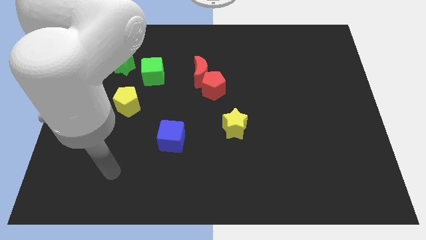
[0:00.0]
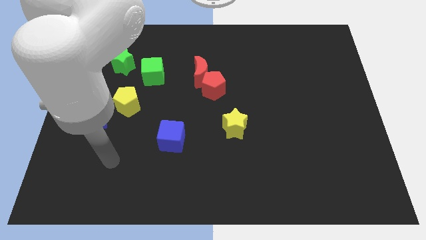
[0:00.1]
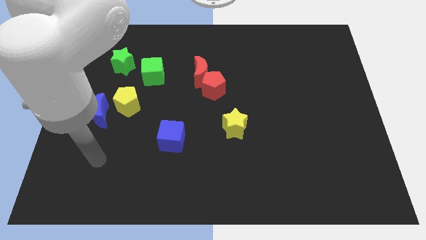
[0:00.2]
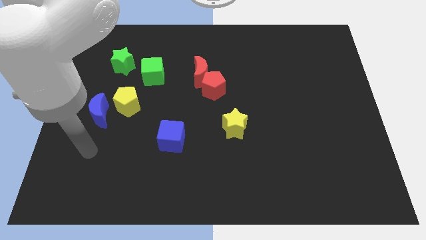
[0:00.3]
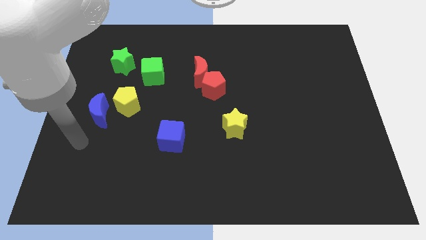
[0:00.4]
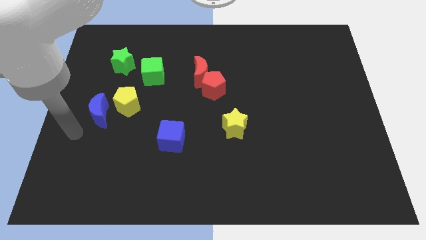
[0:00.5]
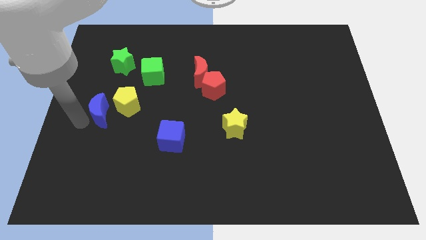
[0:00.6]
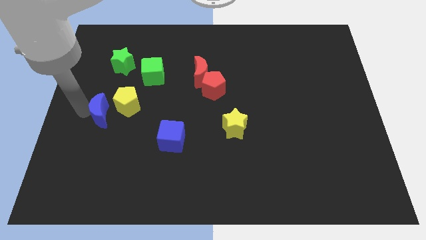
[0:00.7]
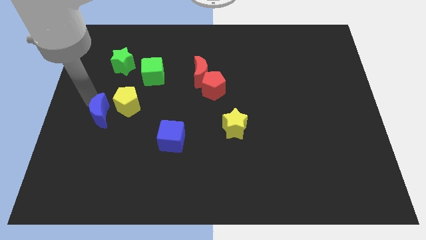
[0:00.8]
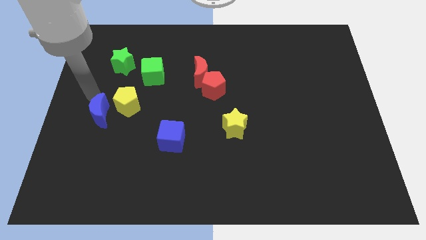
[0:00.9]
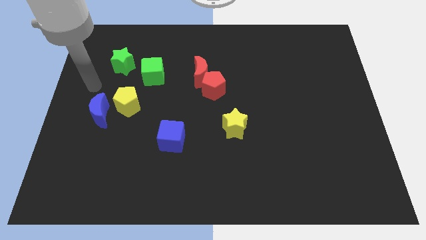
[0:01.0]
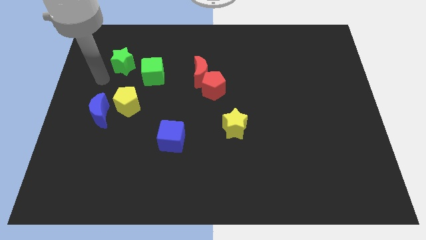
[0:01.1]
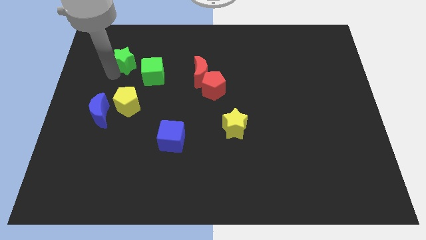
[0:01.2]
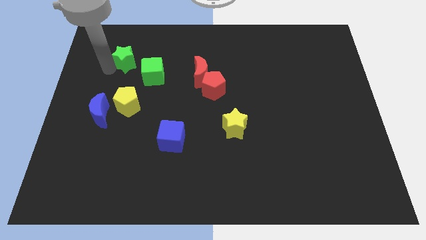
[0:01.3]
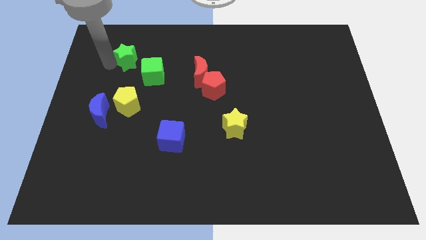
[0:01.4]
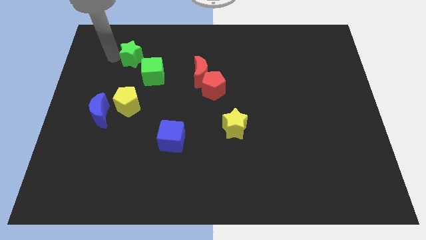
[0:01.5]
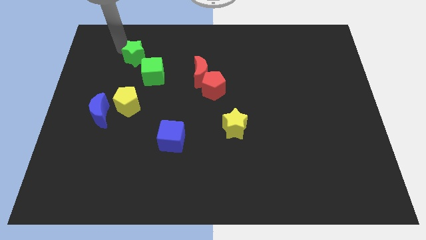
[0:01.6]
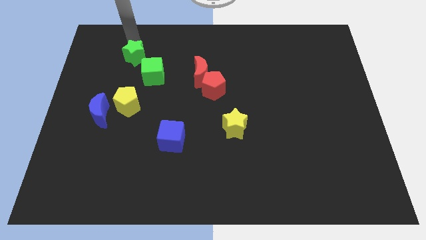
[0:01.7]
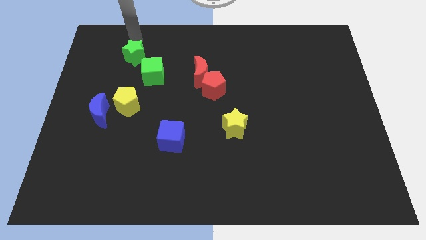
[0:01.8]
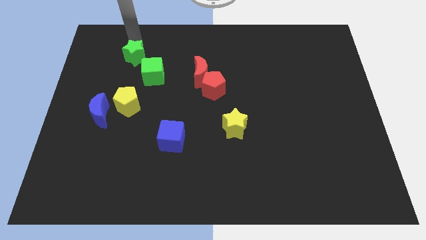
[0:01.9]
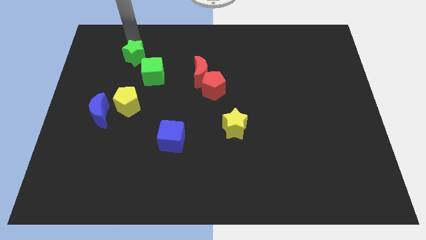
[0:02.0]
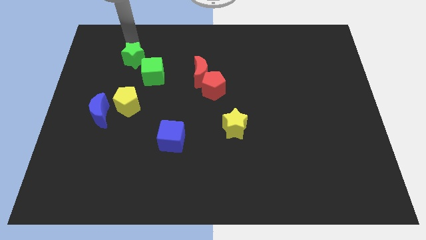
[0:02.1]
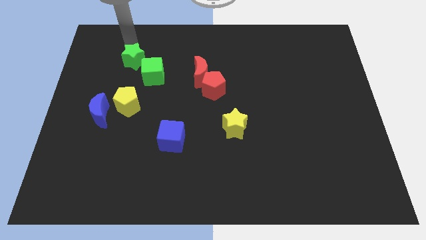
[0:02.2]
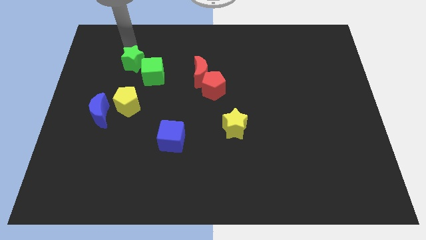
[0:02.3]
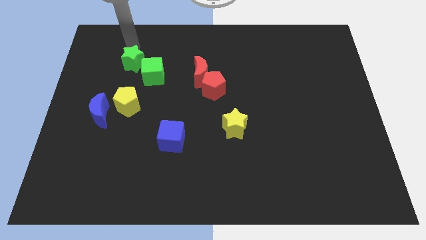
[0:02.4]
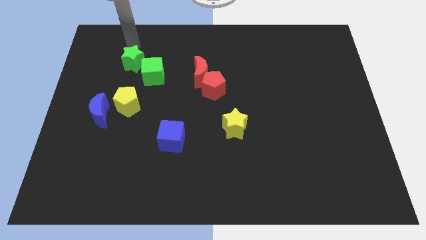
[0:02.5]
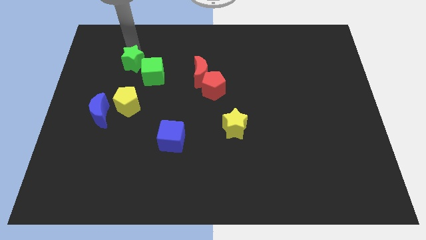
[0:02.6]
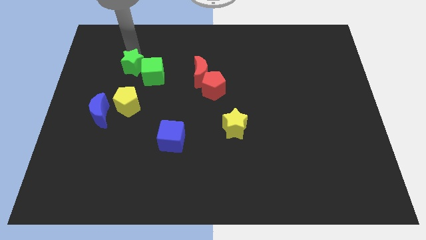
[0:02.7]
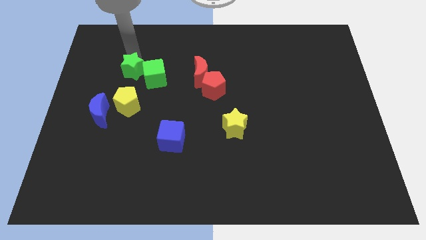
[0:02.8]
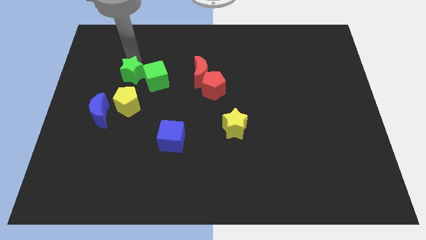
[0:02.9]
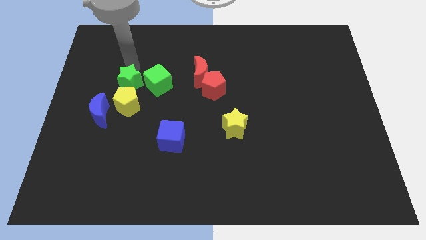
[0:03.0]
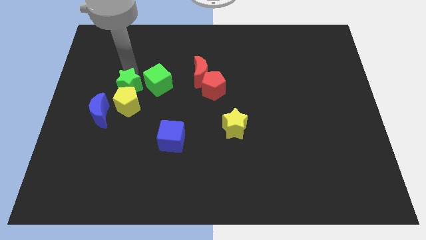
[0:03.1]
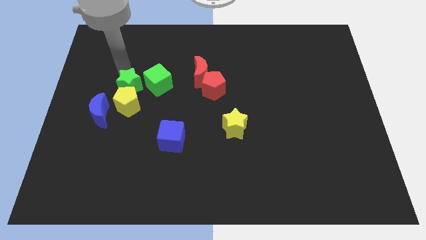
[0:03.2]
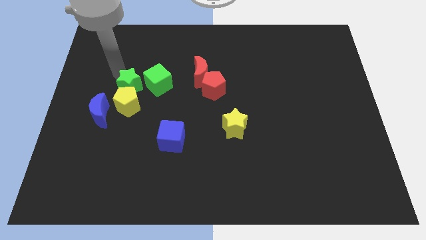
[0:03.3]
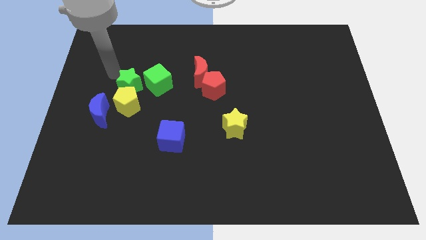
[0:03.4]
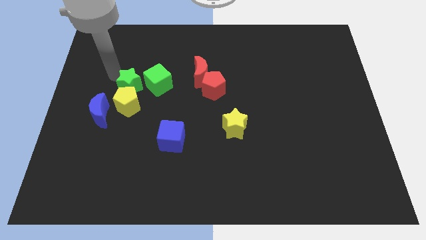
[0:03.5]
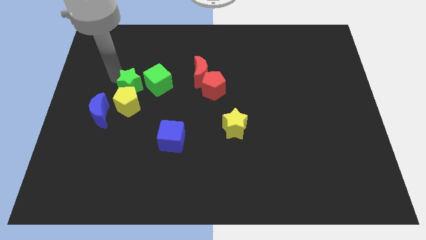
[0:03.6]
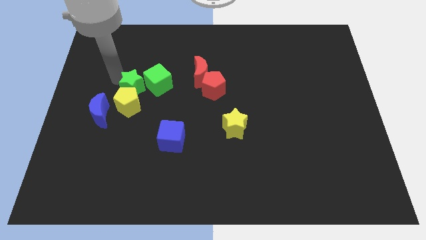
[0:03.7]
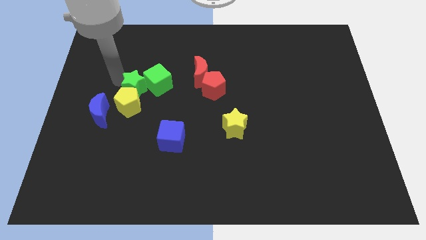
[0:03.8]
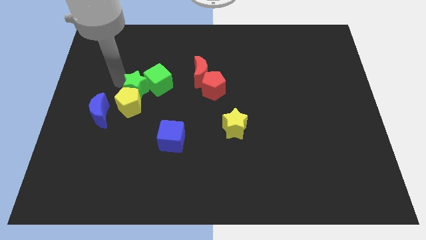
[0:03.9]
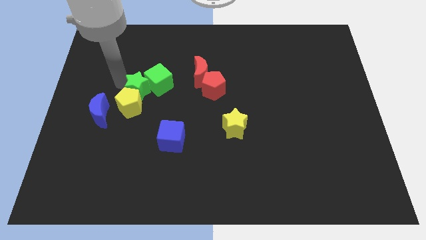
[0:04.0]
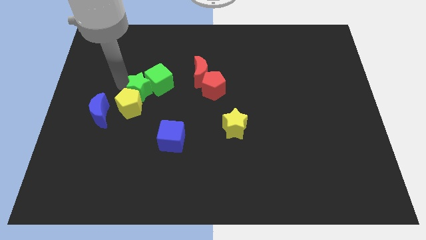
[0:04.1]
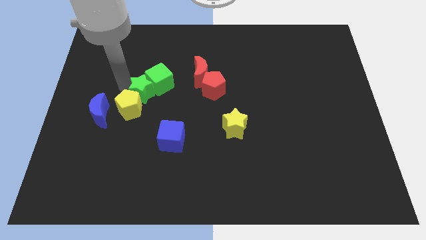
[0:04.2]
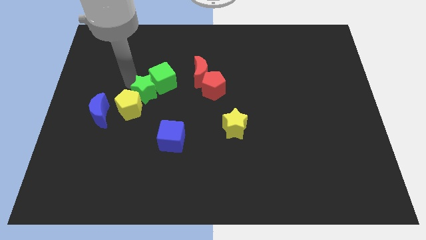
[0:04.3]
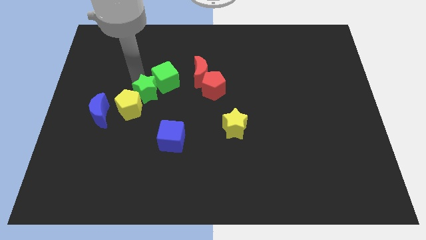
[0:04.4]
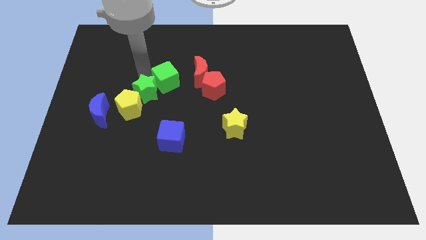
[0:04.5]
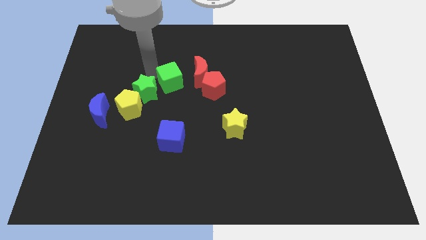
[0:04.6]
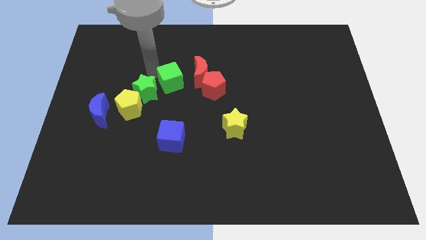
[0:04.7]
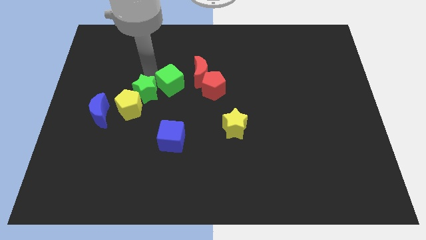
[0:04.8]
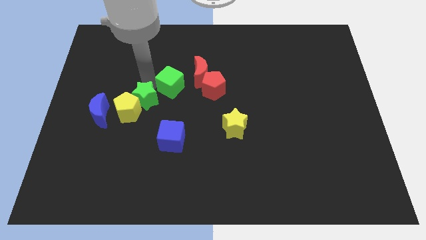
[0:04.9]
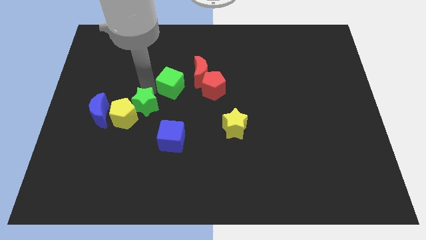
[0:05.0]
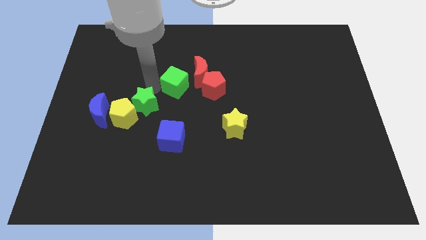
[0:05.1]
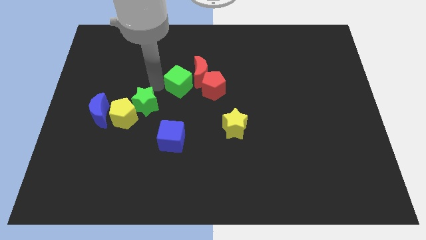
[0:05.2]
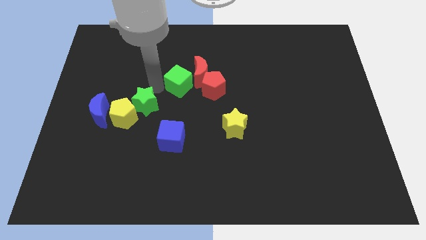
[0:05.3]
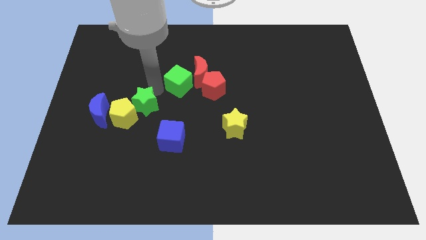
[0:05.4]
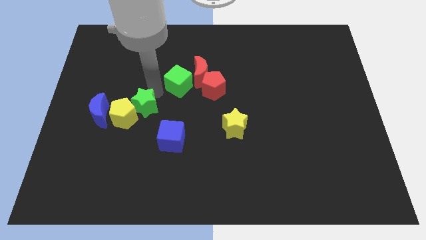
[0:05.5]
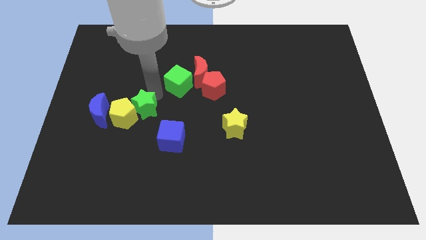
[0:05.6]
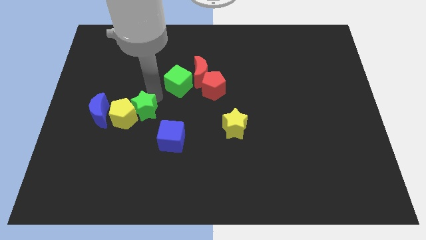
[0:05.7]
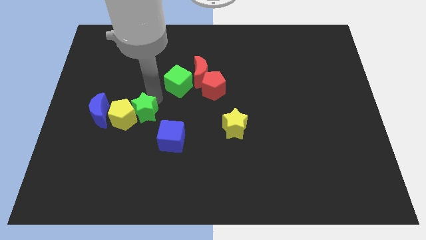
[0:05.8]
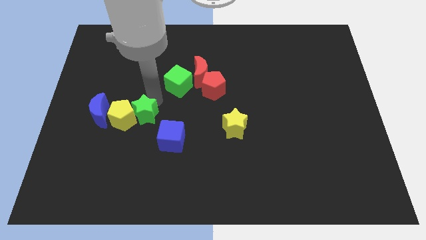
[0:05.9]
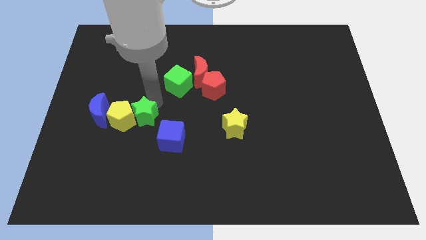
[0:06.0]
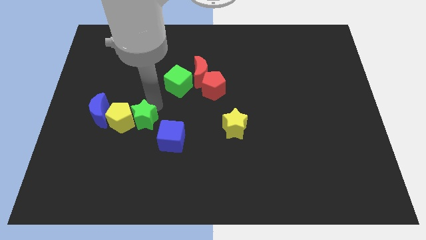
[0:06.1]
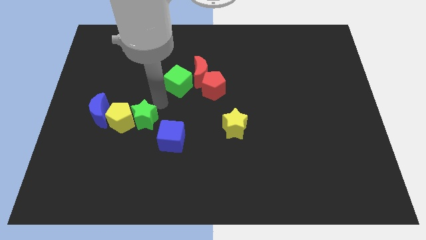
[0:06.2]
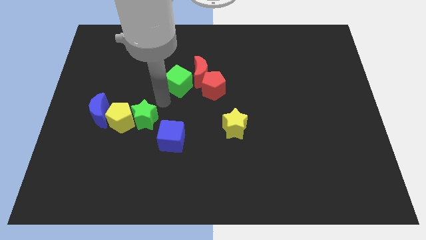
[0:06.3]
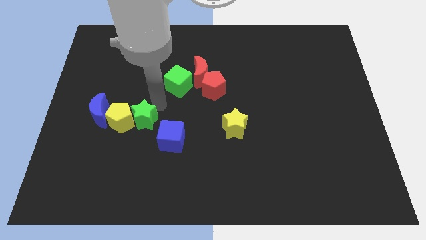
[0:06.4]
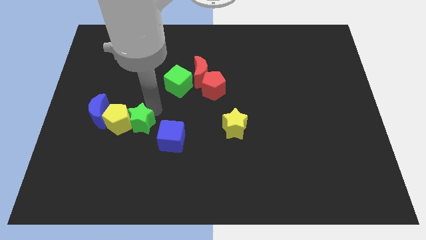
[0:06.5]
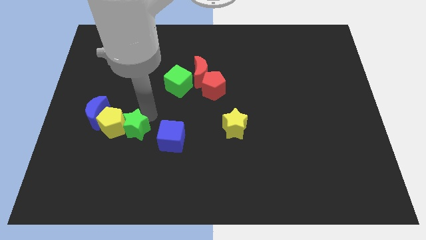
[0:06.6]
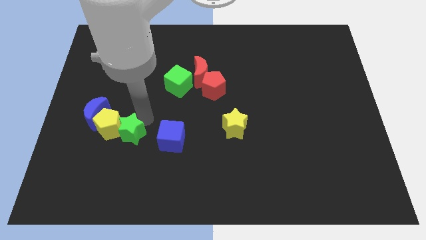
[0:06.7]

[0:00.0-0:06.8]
push the green star down

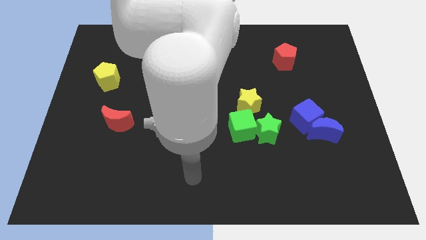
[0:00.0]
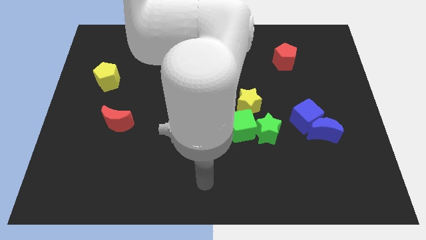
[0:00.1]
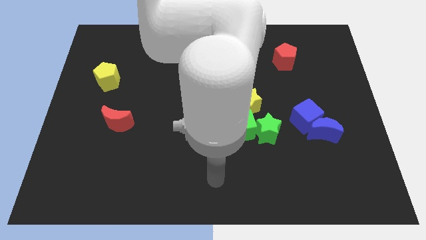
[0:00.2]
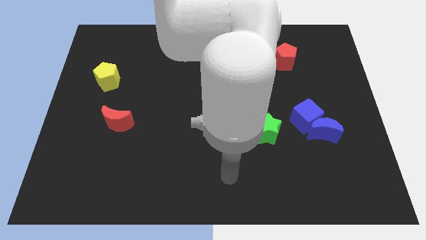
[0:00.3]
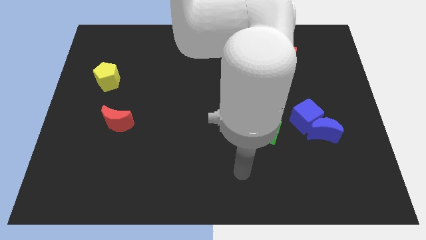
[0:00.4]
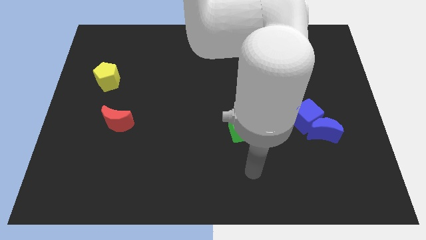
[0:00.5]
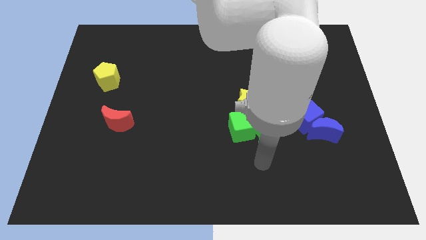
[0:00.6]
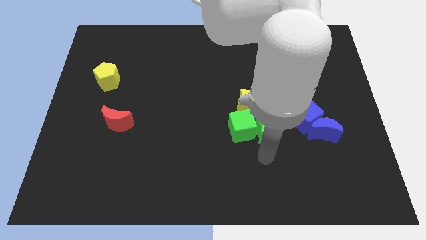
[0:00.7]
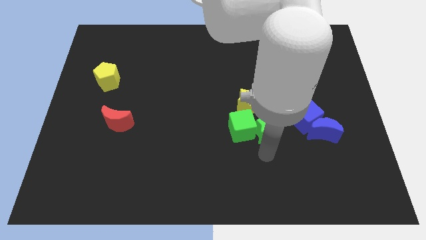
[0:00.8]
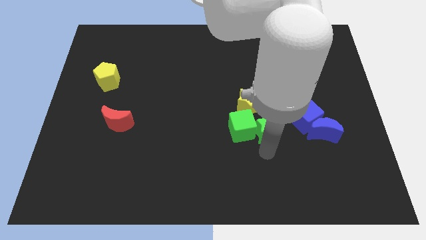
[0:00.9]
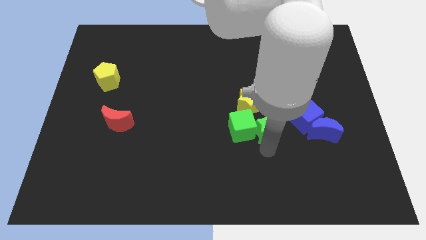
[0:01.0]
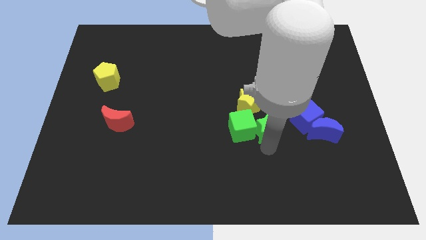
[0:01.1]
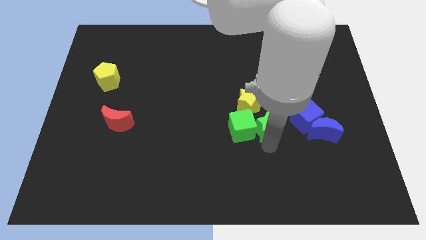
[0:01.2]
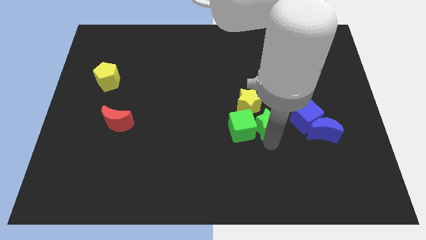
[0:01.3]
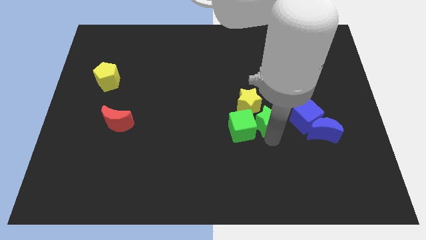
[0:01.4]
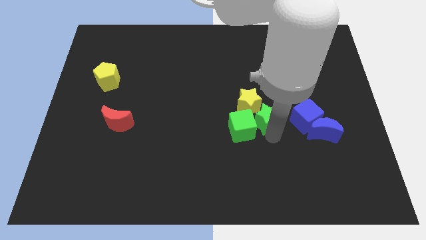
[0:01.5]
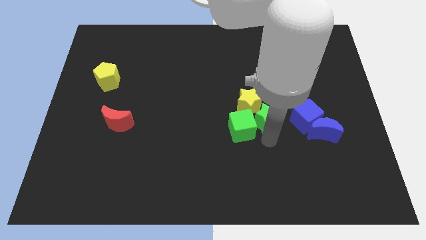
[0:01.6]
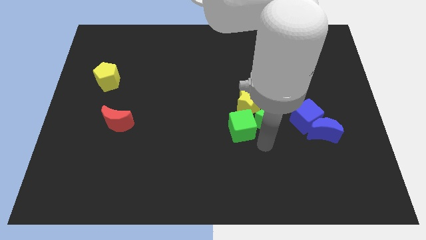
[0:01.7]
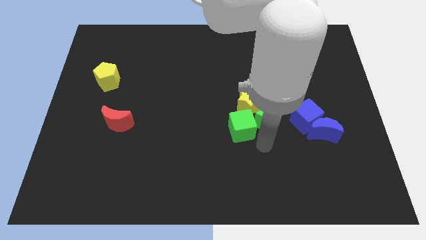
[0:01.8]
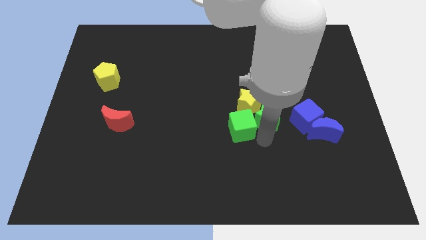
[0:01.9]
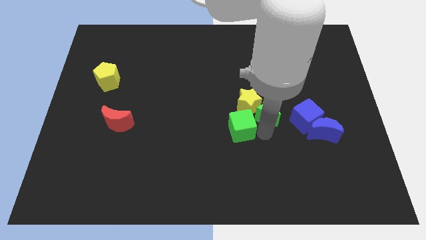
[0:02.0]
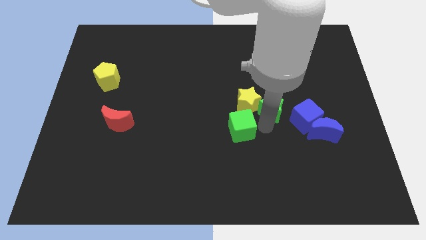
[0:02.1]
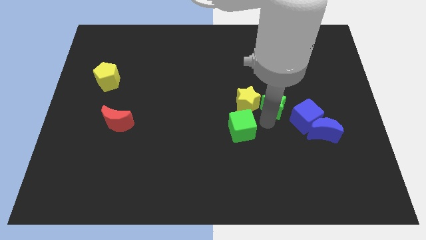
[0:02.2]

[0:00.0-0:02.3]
slide the green star upwards a bit
